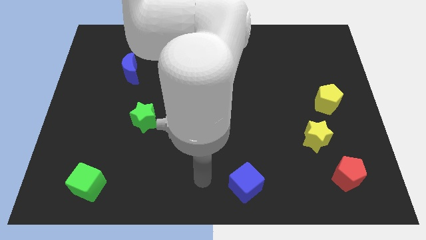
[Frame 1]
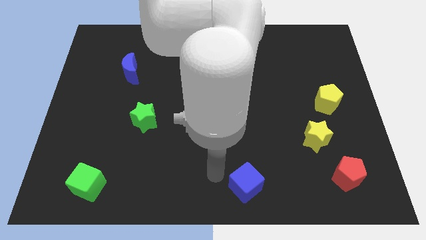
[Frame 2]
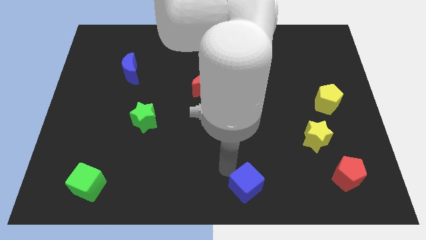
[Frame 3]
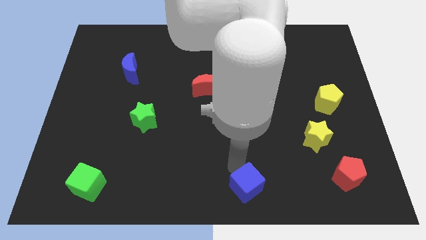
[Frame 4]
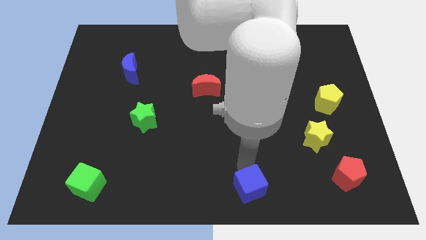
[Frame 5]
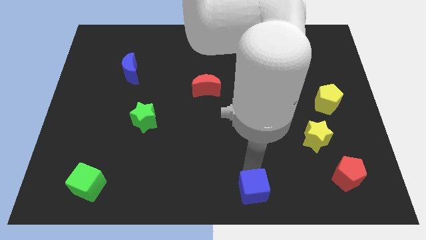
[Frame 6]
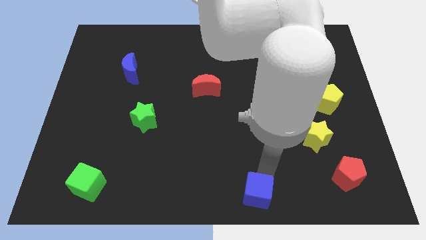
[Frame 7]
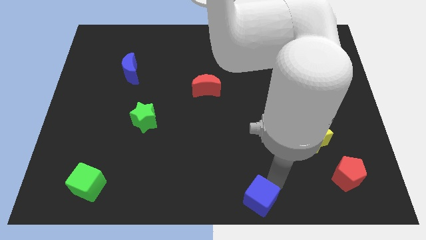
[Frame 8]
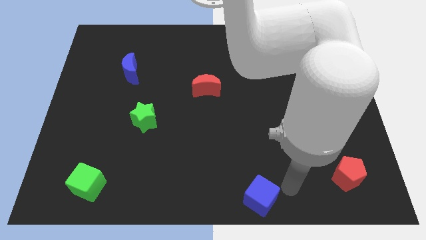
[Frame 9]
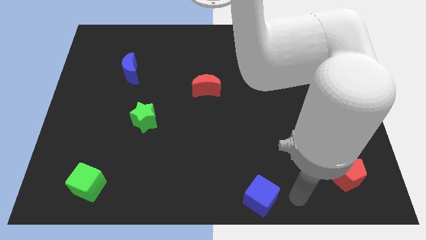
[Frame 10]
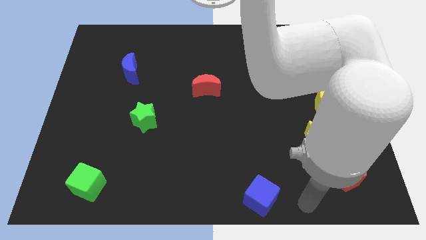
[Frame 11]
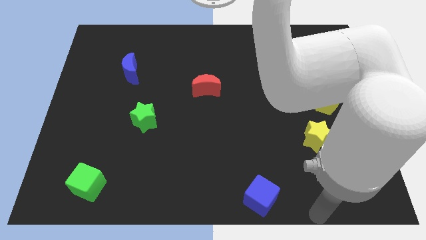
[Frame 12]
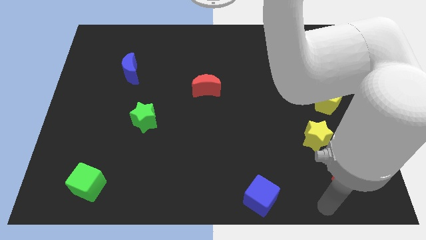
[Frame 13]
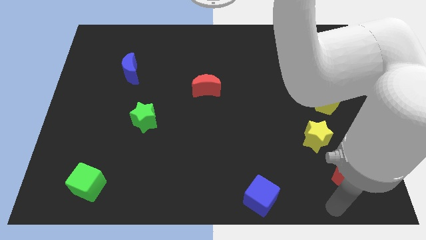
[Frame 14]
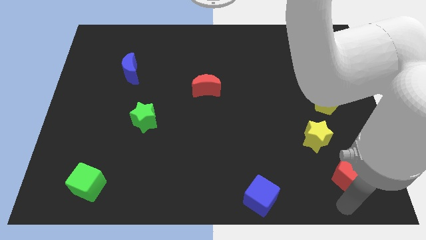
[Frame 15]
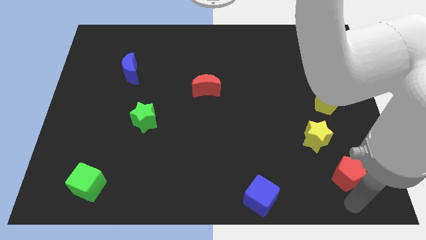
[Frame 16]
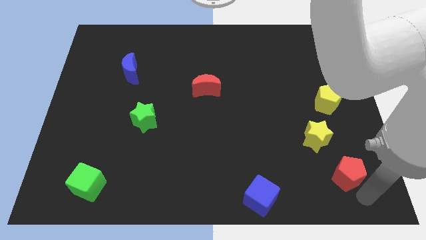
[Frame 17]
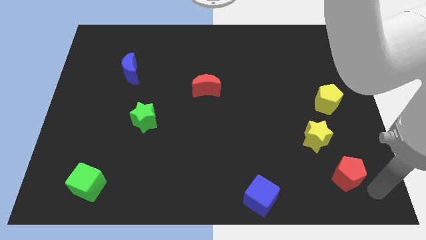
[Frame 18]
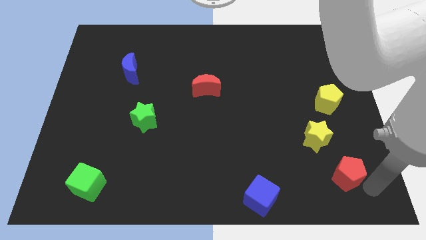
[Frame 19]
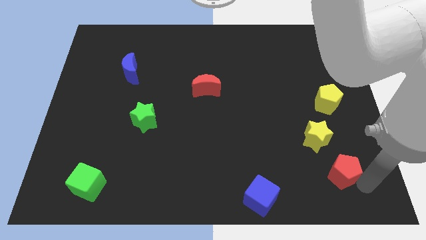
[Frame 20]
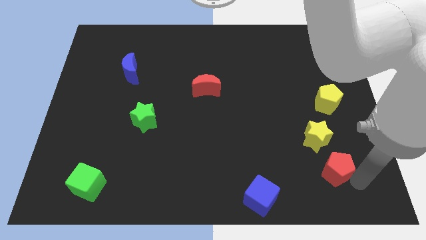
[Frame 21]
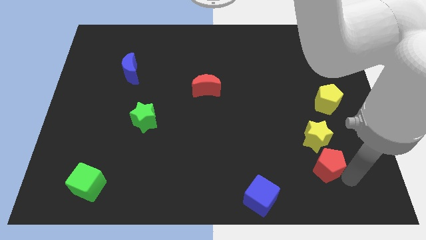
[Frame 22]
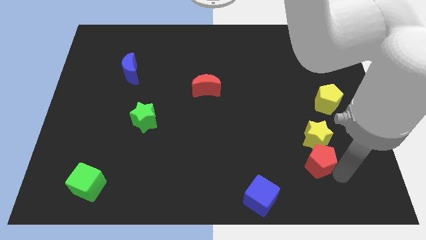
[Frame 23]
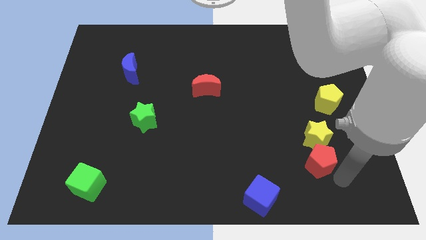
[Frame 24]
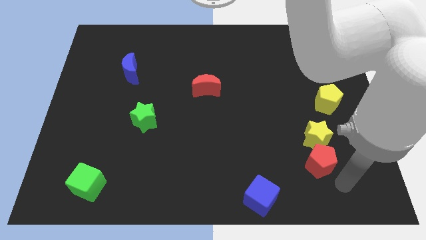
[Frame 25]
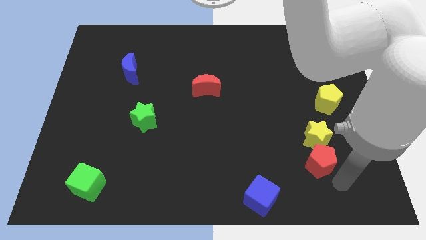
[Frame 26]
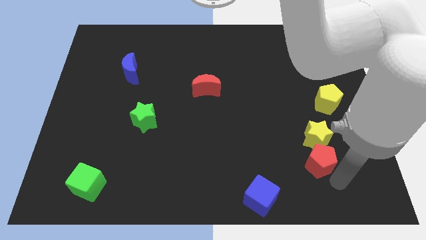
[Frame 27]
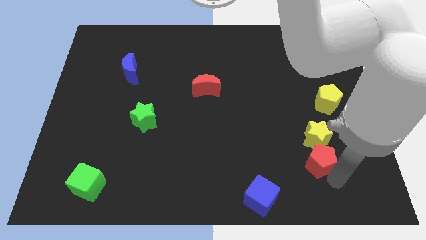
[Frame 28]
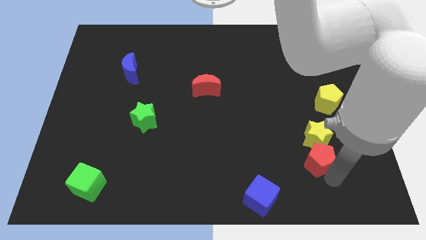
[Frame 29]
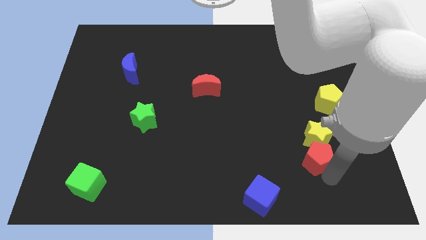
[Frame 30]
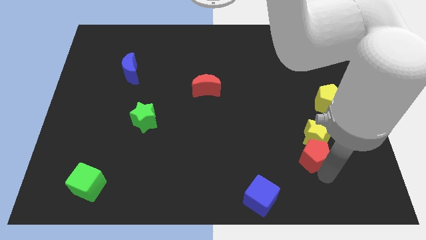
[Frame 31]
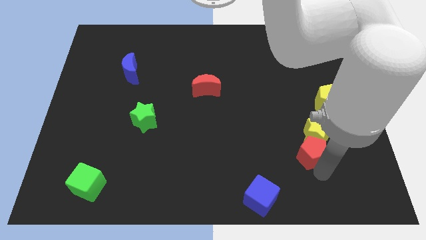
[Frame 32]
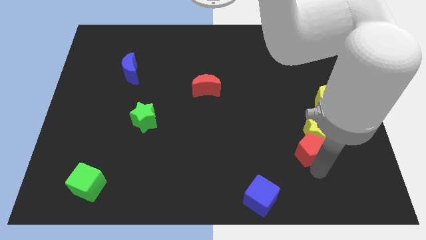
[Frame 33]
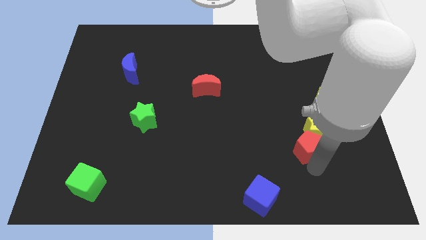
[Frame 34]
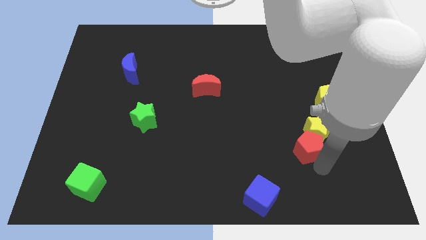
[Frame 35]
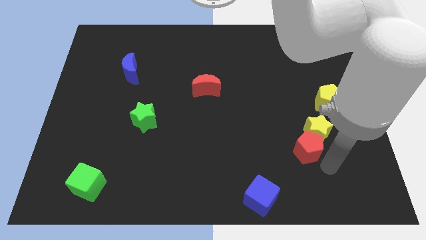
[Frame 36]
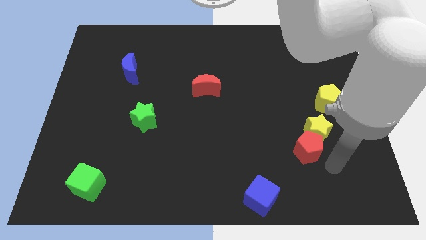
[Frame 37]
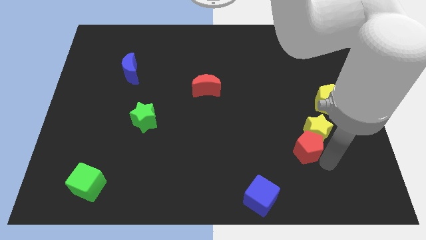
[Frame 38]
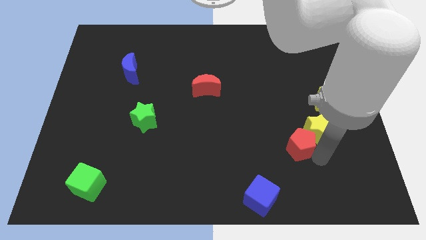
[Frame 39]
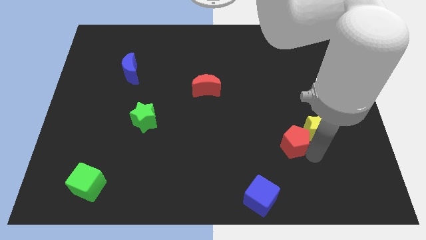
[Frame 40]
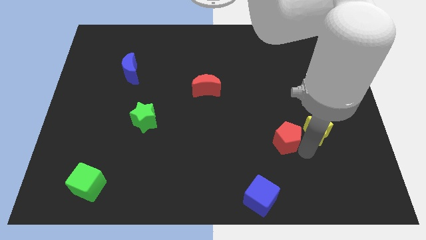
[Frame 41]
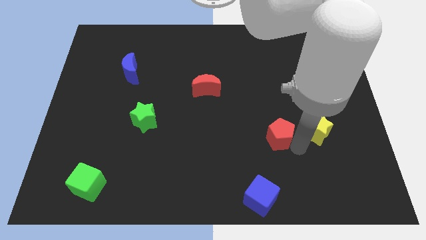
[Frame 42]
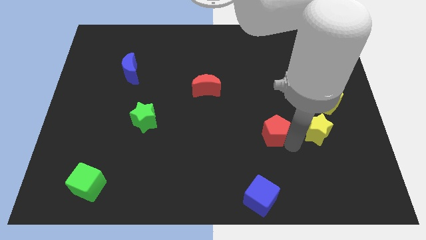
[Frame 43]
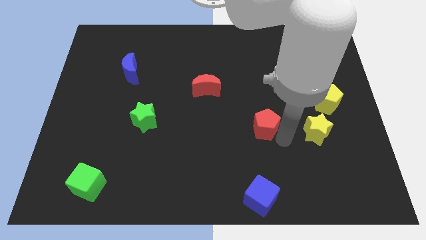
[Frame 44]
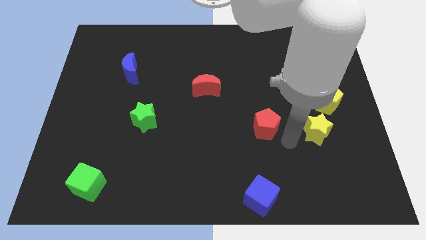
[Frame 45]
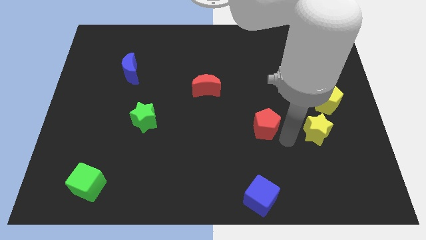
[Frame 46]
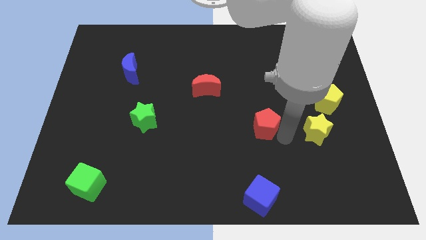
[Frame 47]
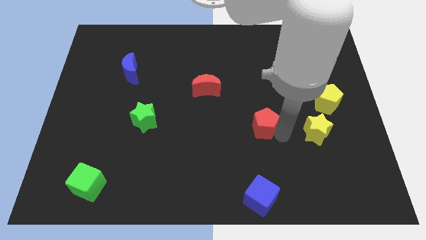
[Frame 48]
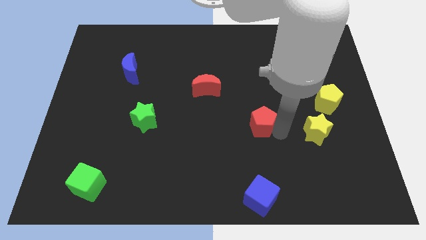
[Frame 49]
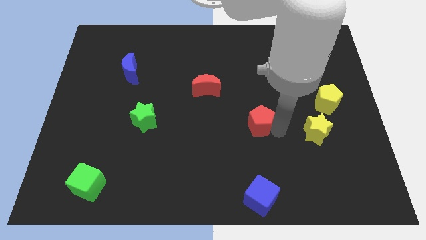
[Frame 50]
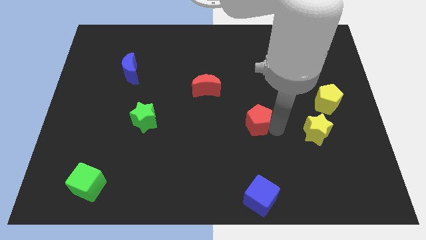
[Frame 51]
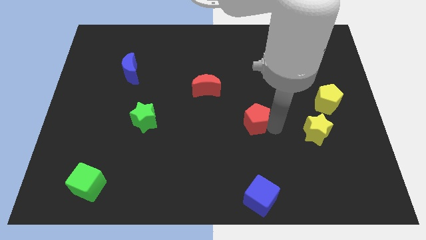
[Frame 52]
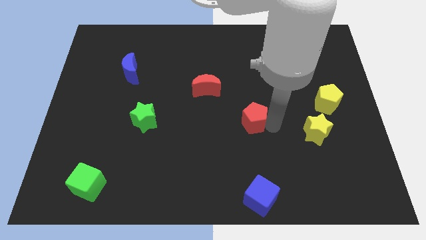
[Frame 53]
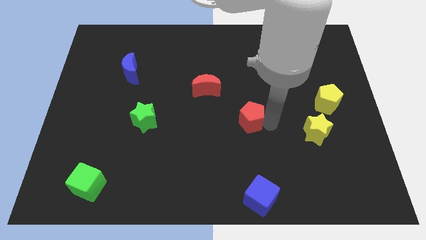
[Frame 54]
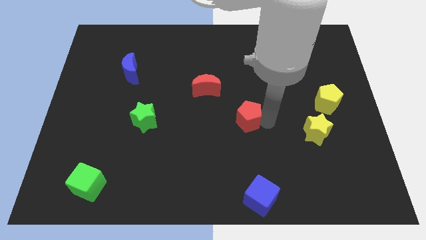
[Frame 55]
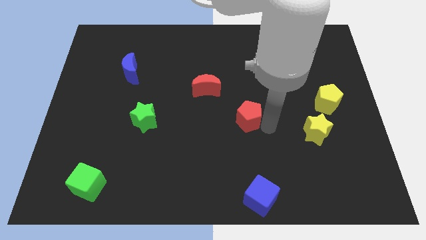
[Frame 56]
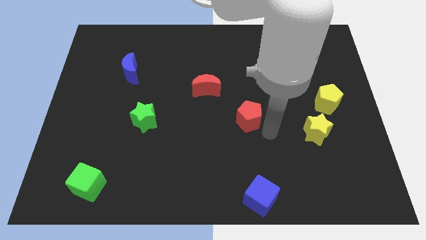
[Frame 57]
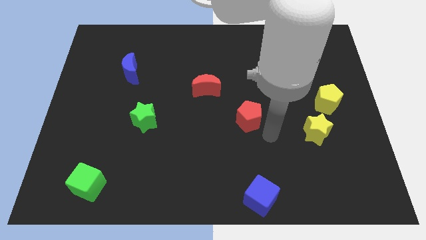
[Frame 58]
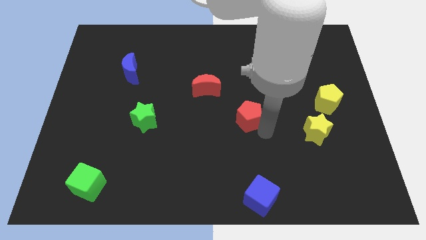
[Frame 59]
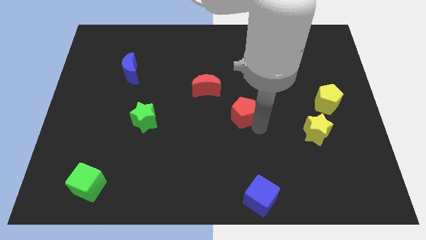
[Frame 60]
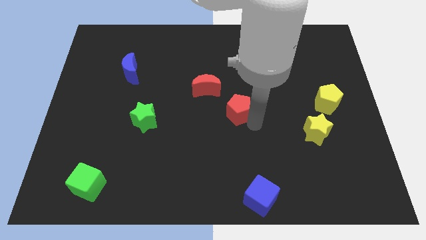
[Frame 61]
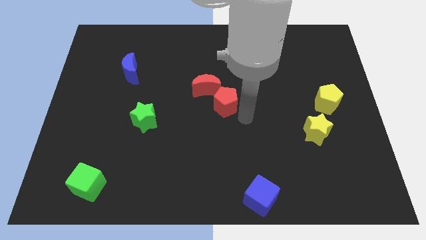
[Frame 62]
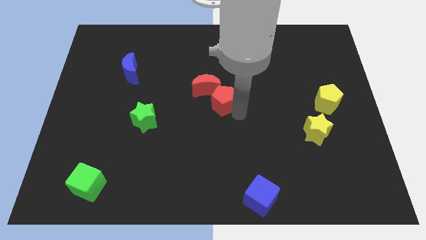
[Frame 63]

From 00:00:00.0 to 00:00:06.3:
slide the red pentagon towards the red moon

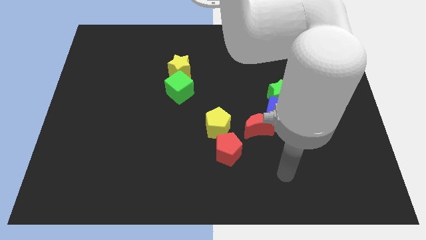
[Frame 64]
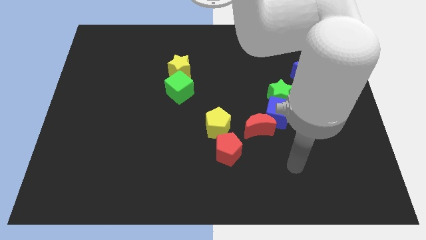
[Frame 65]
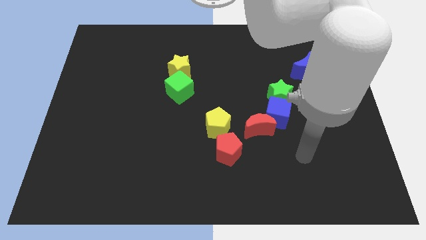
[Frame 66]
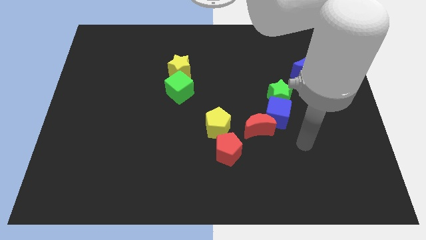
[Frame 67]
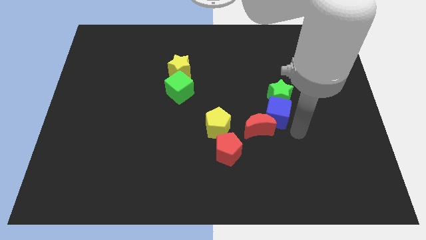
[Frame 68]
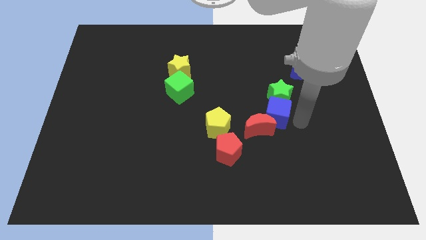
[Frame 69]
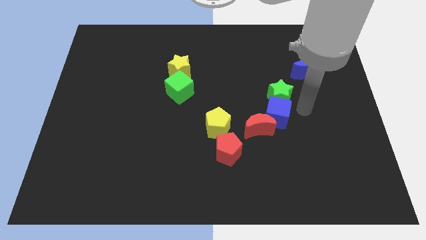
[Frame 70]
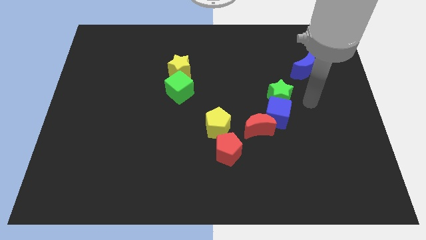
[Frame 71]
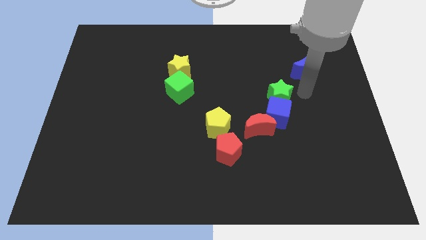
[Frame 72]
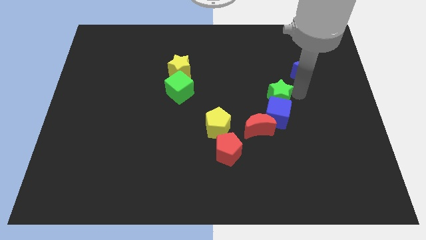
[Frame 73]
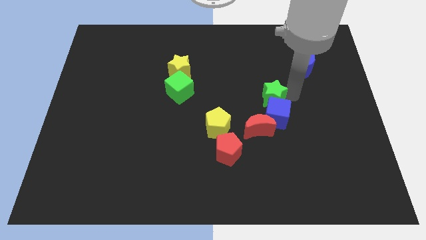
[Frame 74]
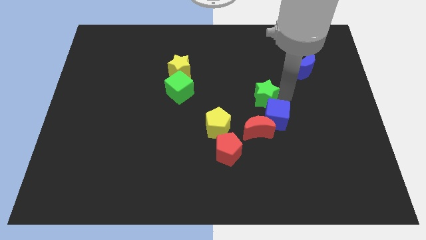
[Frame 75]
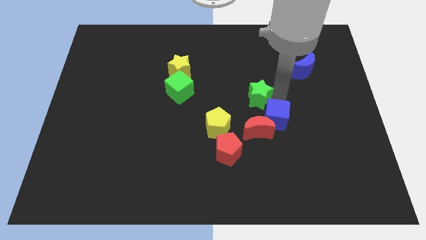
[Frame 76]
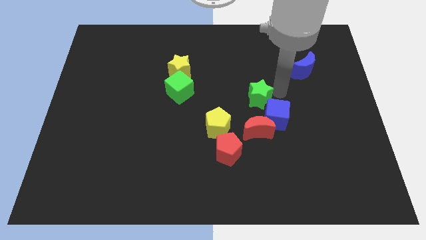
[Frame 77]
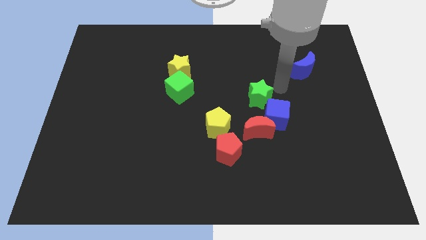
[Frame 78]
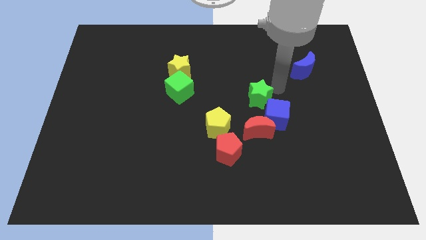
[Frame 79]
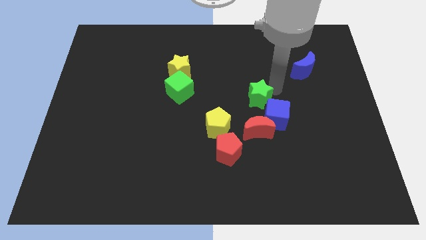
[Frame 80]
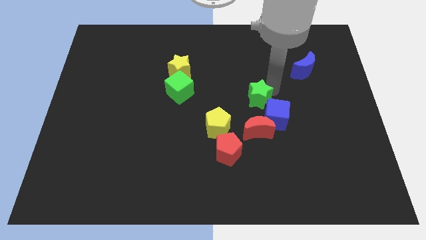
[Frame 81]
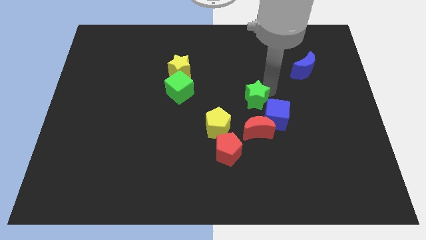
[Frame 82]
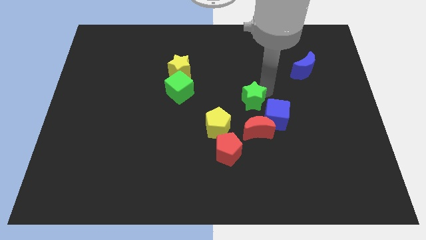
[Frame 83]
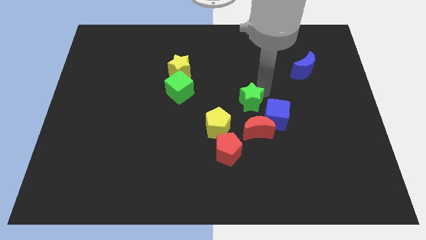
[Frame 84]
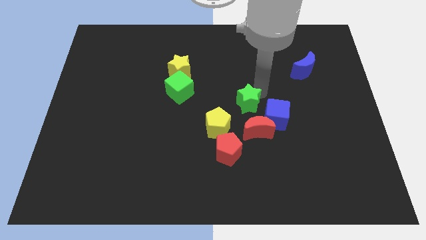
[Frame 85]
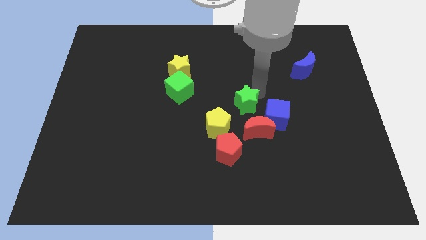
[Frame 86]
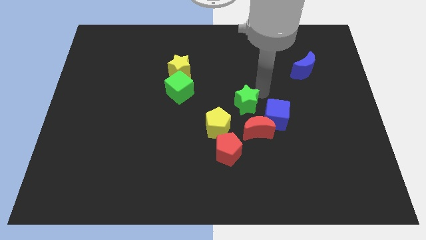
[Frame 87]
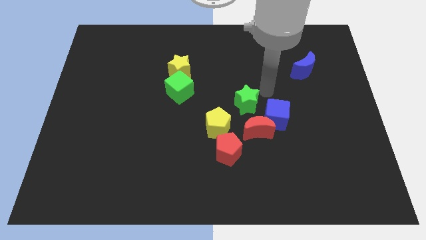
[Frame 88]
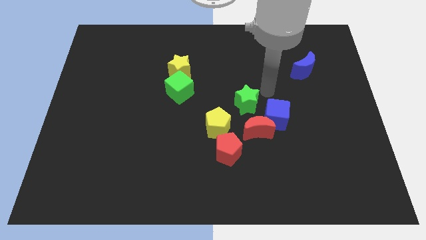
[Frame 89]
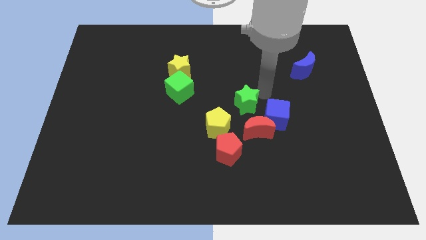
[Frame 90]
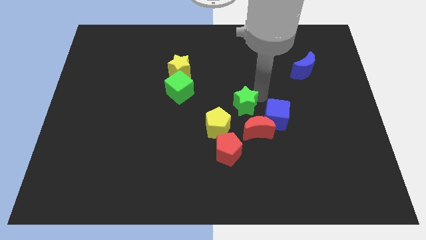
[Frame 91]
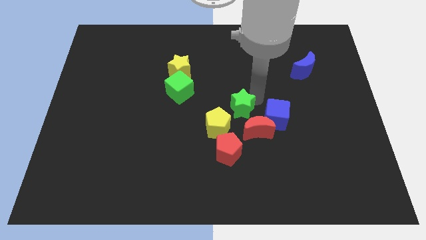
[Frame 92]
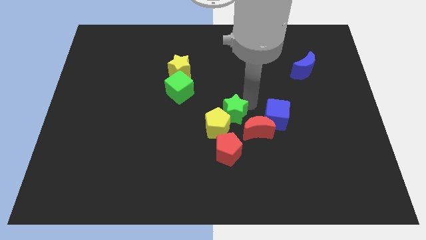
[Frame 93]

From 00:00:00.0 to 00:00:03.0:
put the green star next to the yellow pentagon
